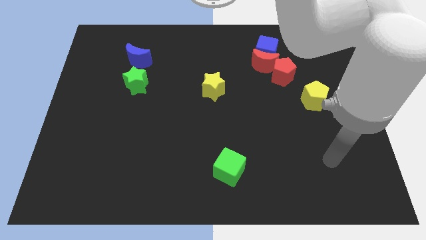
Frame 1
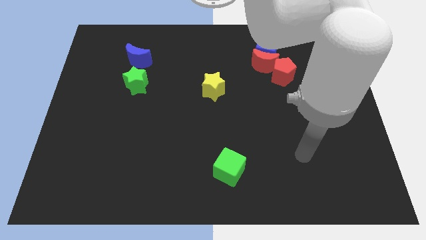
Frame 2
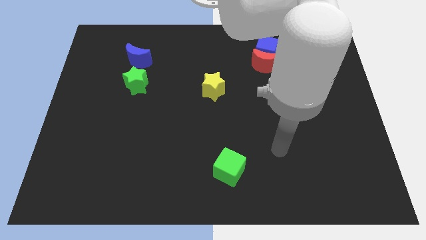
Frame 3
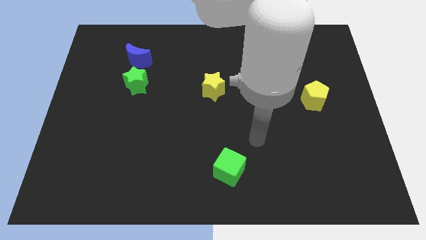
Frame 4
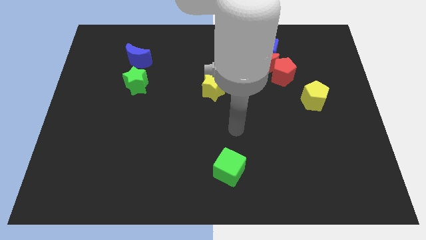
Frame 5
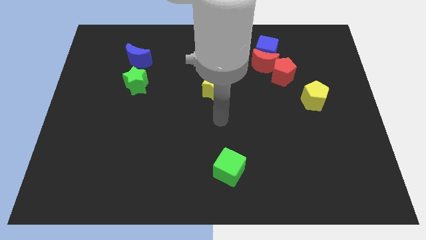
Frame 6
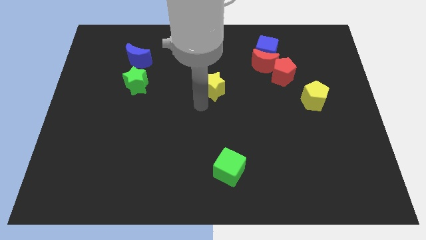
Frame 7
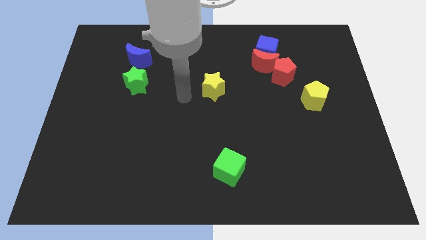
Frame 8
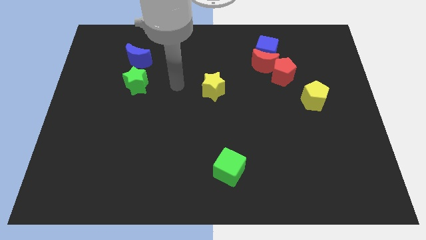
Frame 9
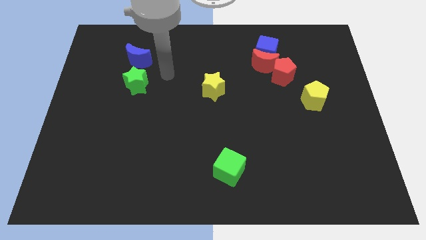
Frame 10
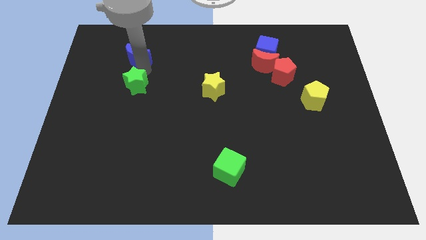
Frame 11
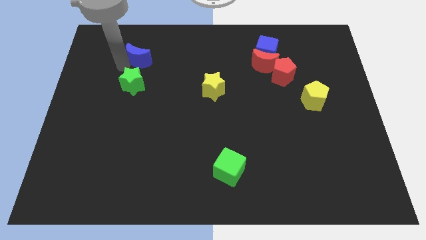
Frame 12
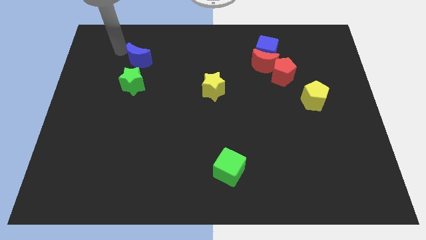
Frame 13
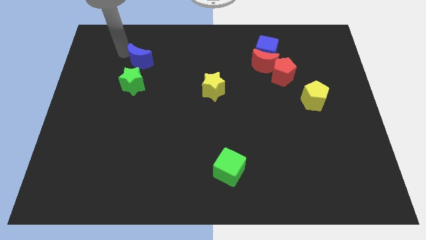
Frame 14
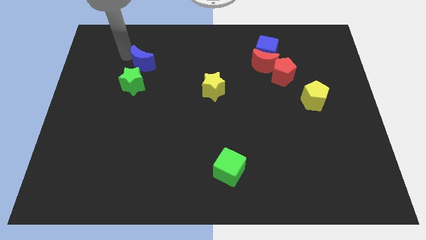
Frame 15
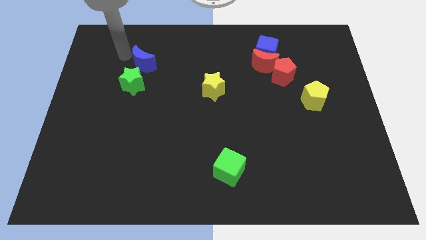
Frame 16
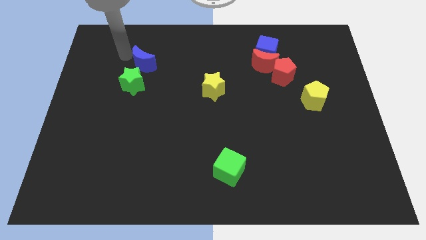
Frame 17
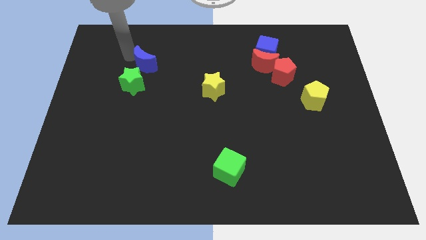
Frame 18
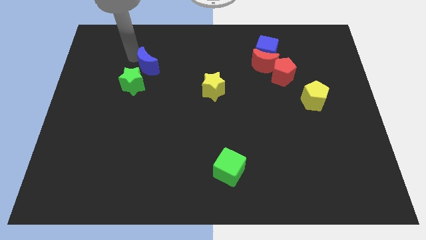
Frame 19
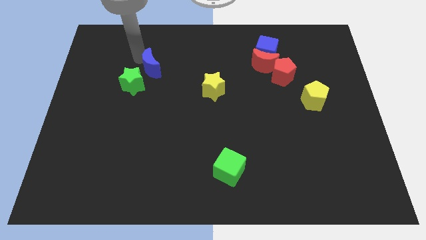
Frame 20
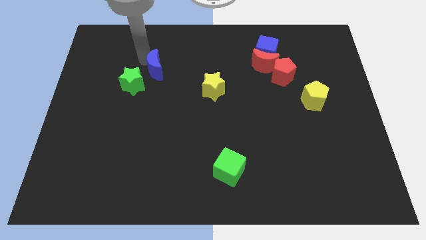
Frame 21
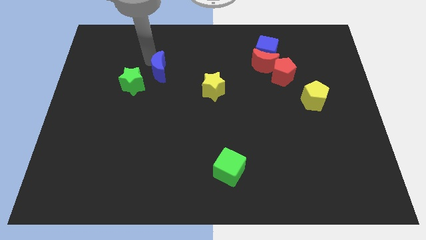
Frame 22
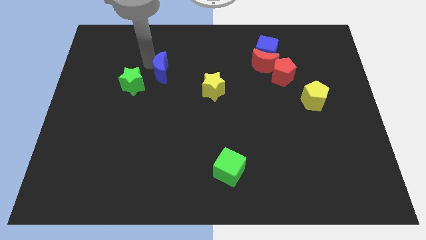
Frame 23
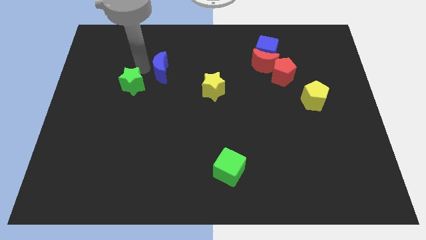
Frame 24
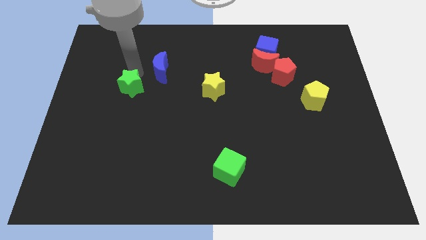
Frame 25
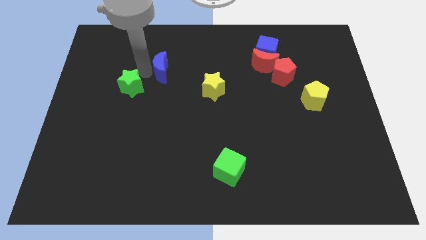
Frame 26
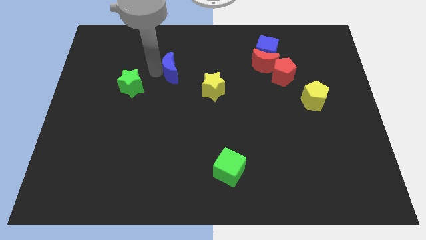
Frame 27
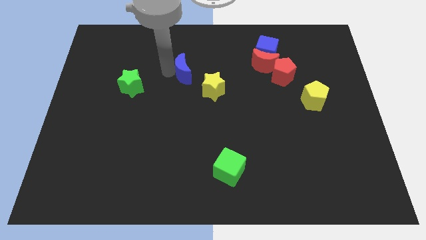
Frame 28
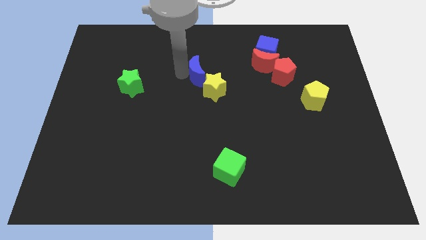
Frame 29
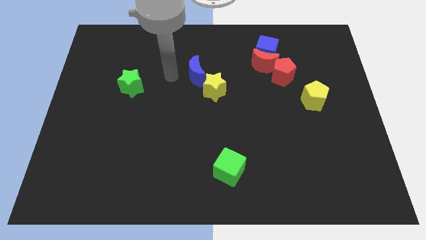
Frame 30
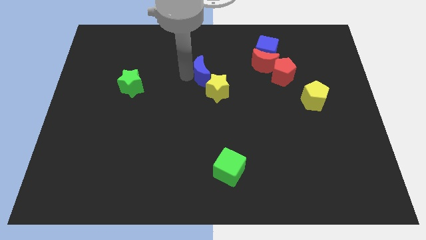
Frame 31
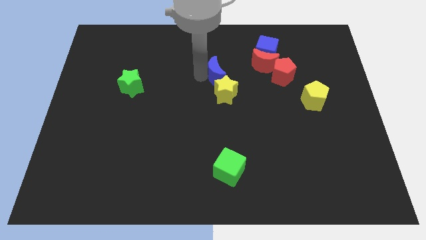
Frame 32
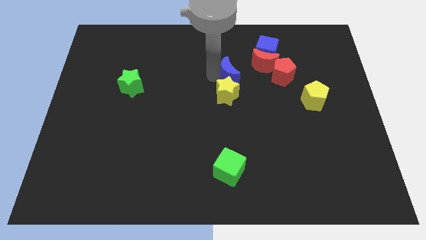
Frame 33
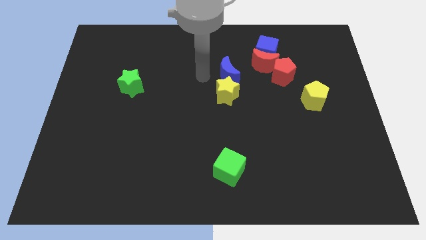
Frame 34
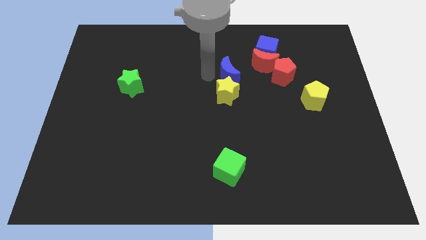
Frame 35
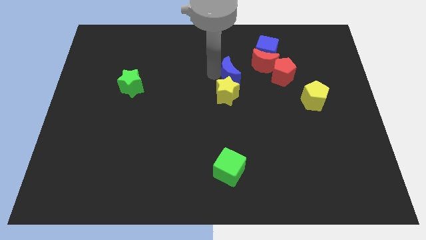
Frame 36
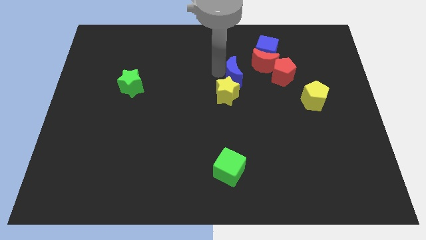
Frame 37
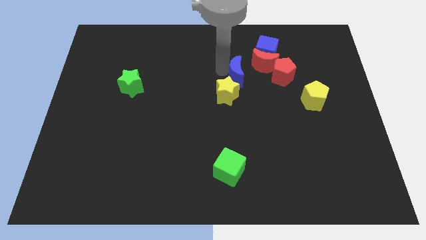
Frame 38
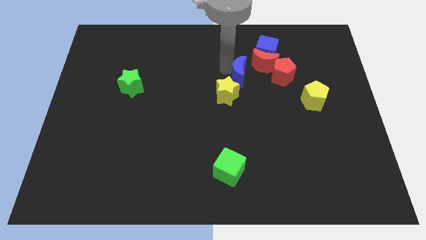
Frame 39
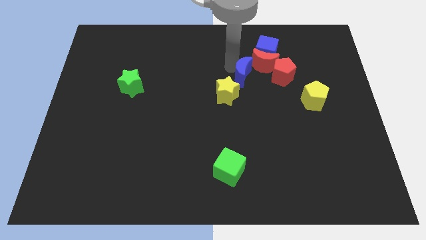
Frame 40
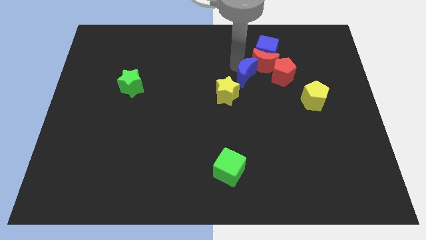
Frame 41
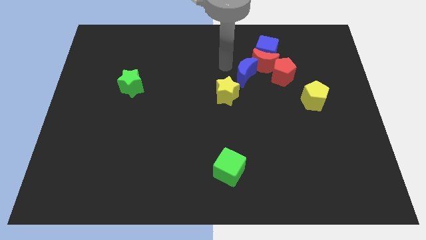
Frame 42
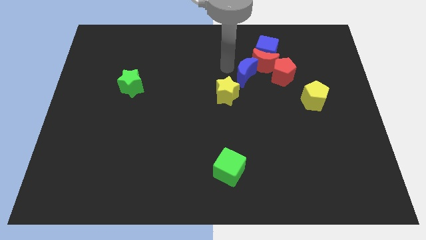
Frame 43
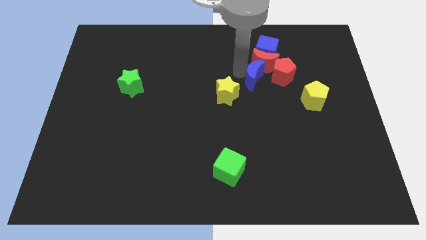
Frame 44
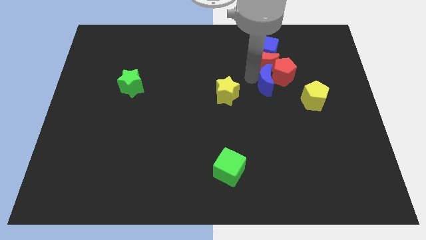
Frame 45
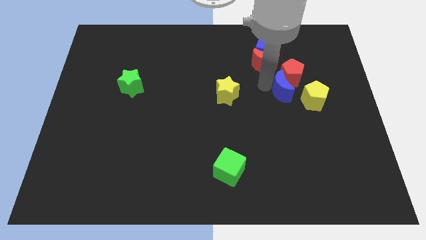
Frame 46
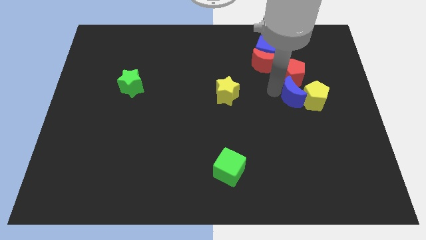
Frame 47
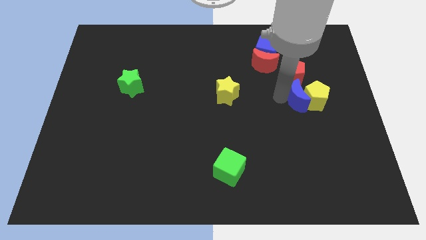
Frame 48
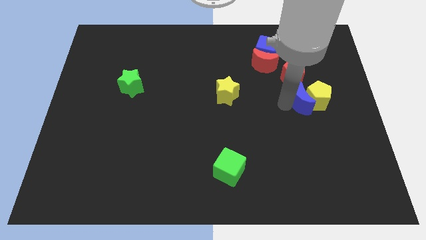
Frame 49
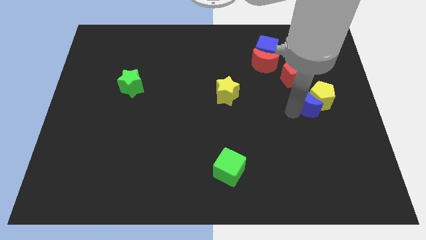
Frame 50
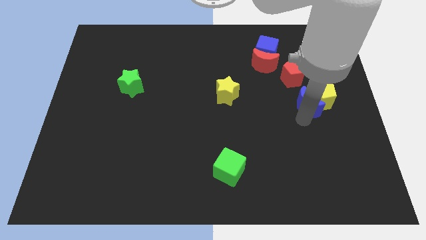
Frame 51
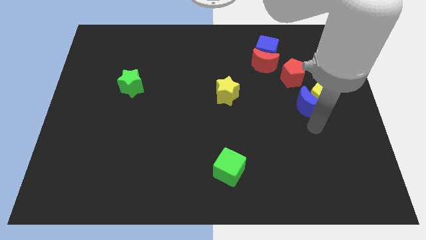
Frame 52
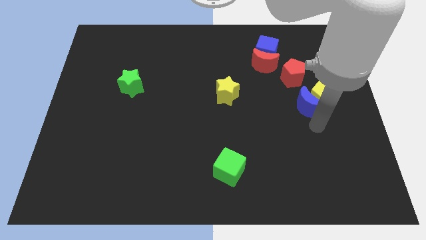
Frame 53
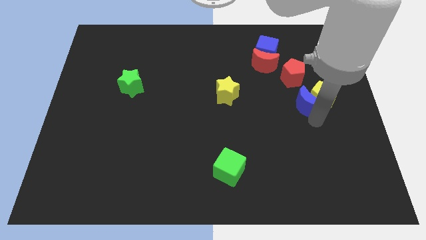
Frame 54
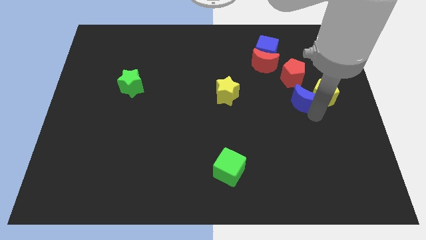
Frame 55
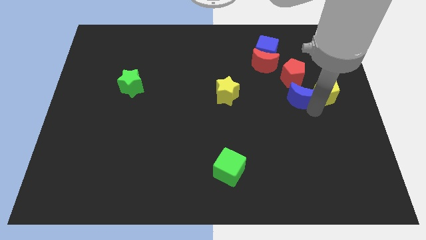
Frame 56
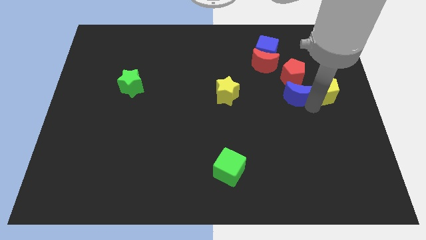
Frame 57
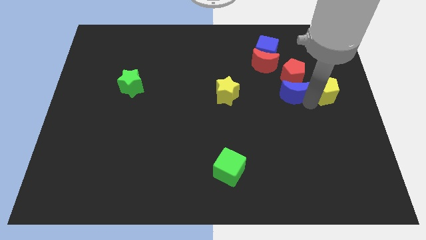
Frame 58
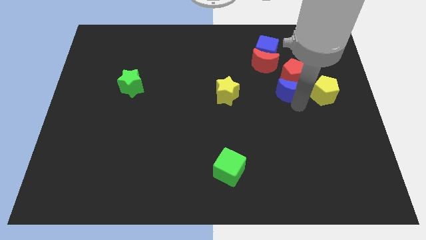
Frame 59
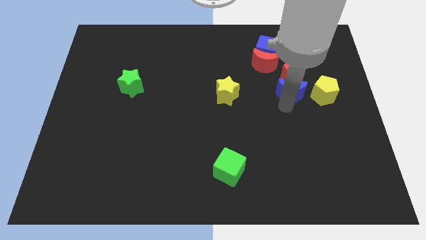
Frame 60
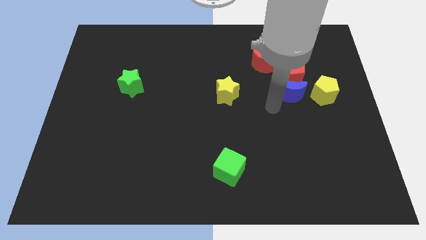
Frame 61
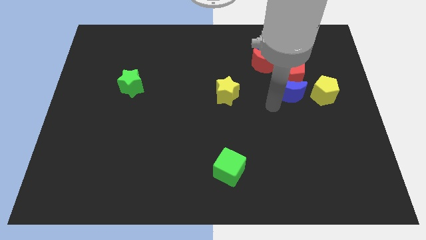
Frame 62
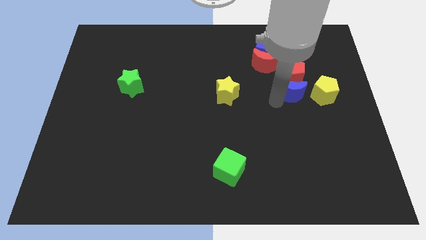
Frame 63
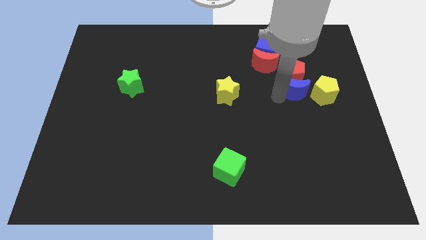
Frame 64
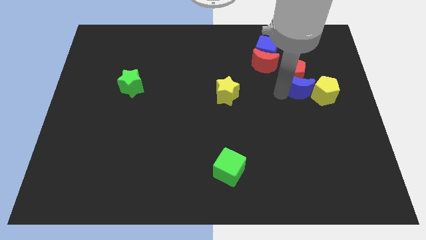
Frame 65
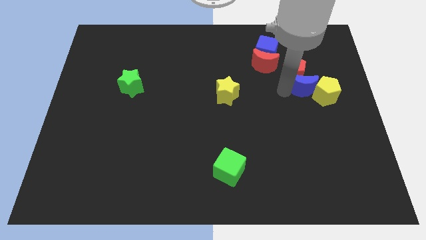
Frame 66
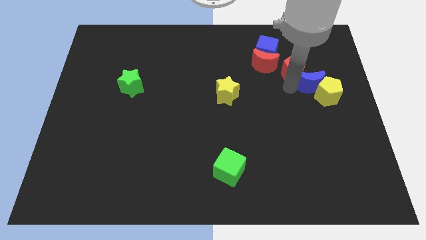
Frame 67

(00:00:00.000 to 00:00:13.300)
slide the blue moon to the right of the red pentagon
